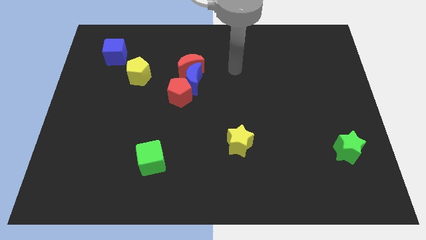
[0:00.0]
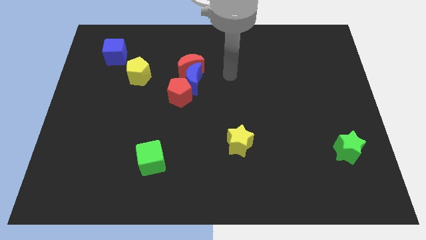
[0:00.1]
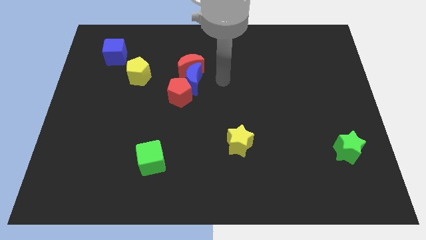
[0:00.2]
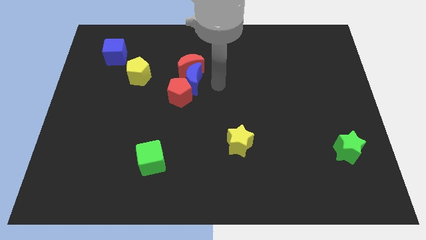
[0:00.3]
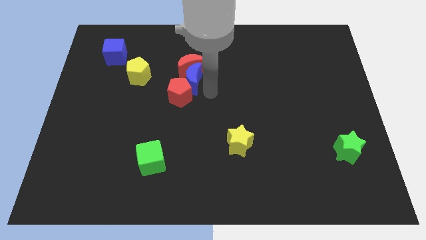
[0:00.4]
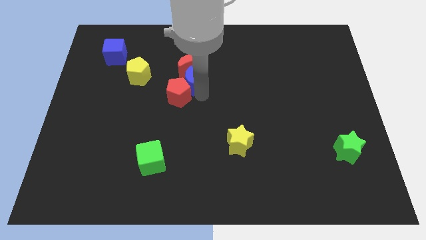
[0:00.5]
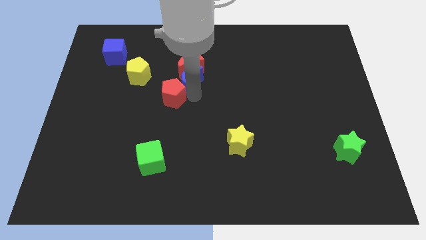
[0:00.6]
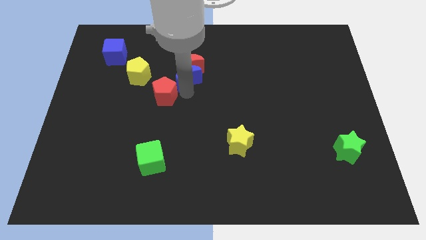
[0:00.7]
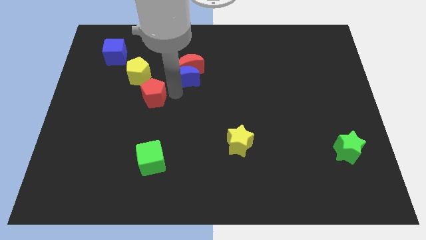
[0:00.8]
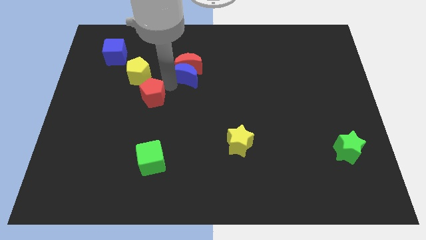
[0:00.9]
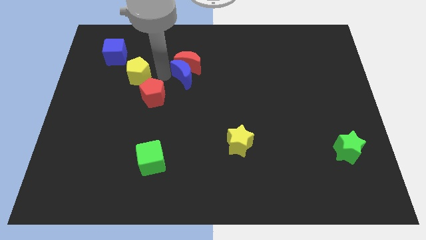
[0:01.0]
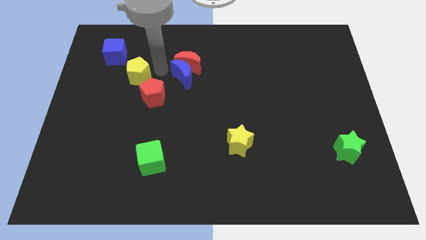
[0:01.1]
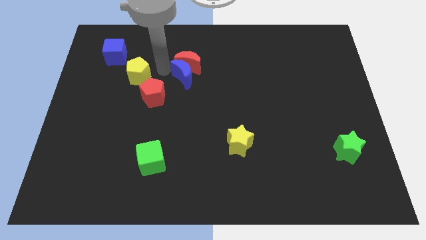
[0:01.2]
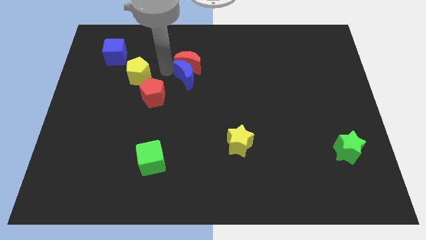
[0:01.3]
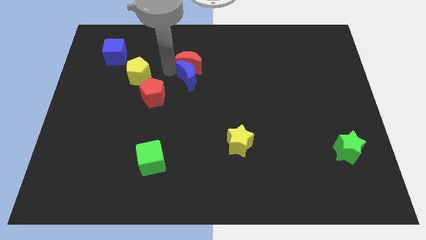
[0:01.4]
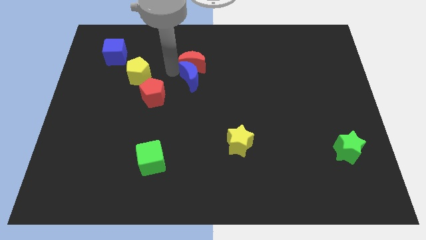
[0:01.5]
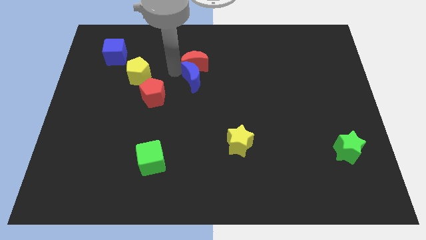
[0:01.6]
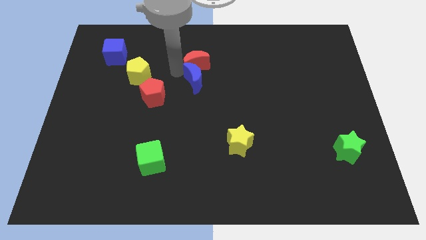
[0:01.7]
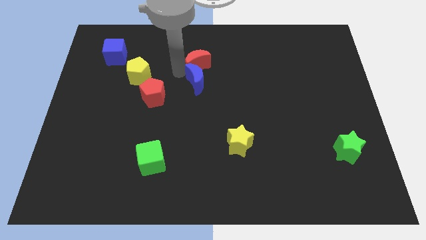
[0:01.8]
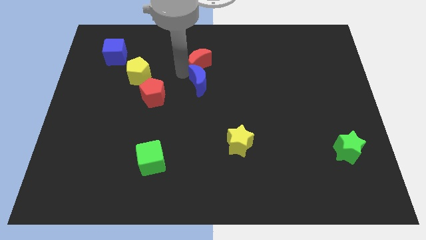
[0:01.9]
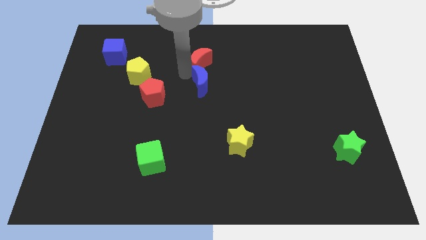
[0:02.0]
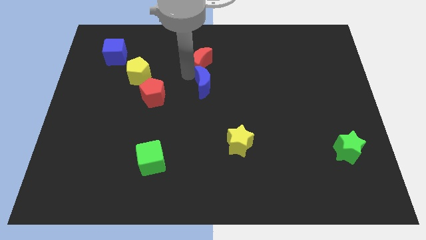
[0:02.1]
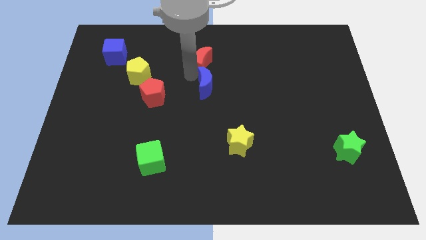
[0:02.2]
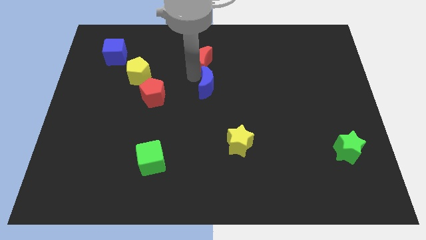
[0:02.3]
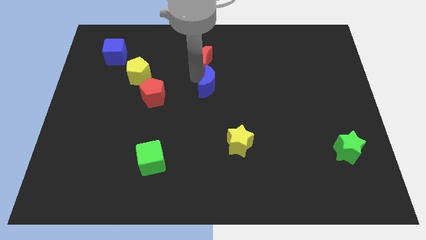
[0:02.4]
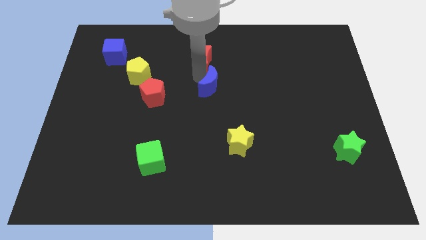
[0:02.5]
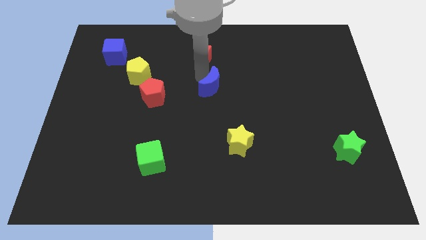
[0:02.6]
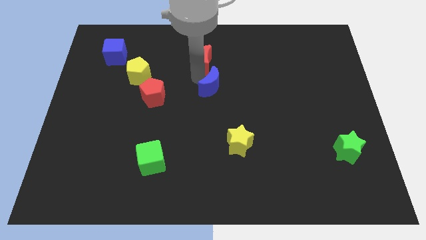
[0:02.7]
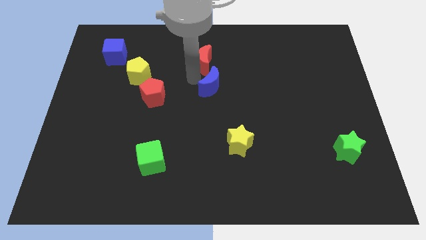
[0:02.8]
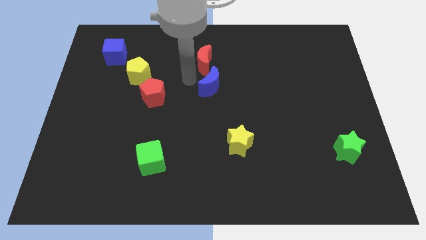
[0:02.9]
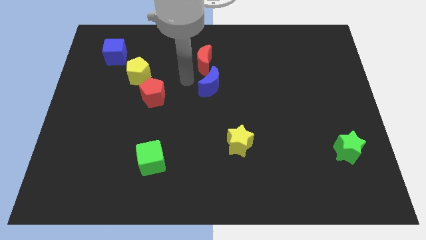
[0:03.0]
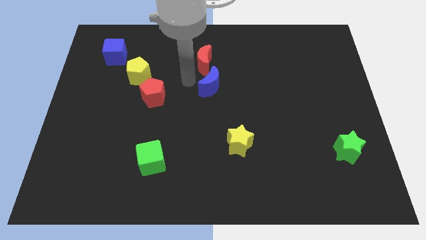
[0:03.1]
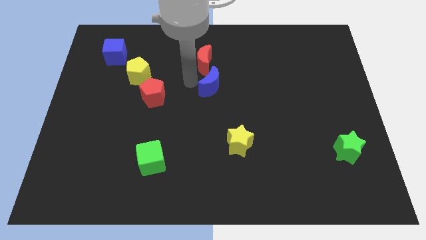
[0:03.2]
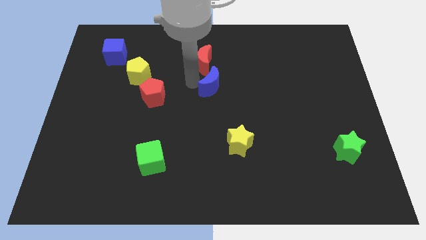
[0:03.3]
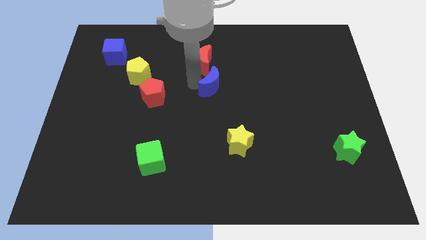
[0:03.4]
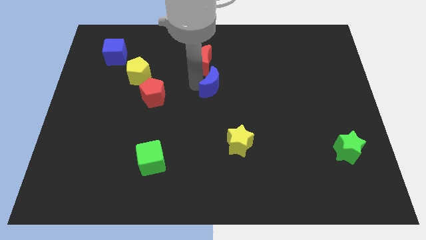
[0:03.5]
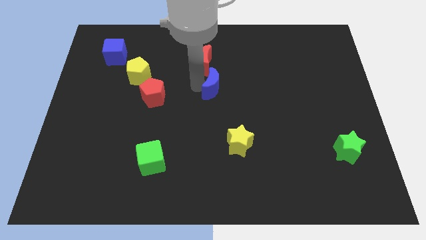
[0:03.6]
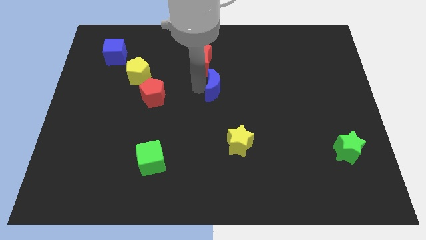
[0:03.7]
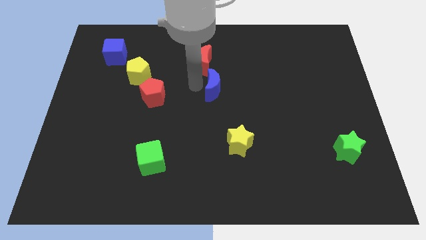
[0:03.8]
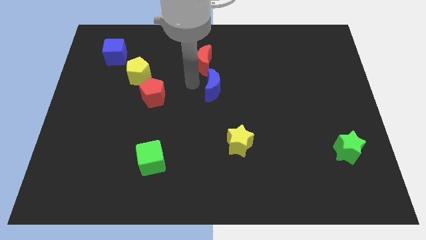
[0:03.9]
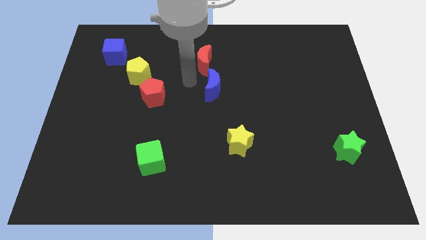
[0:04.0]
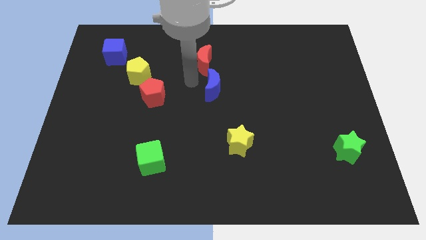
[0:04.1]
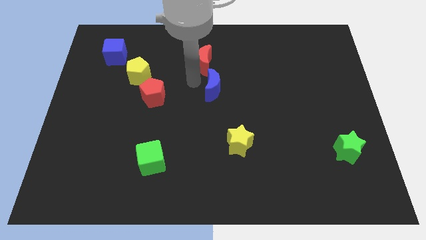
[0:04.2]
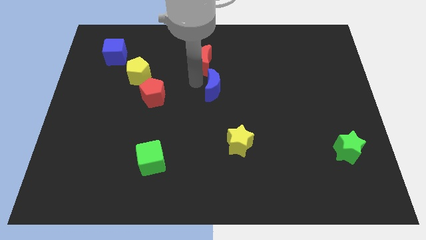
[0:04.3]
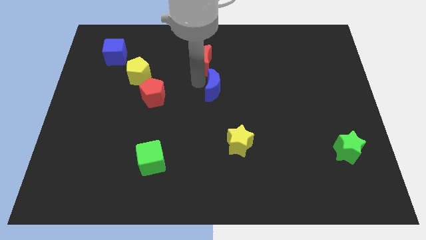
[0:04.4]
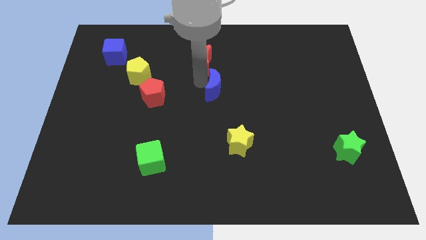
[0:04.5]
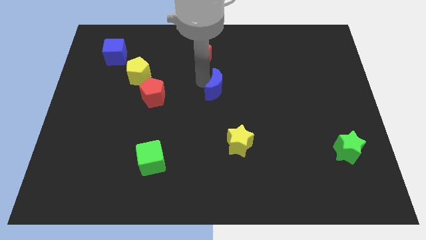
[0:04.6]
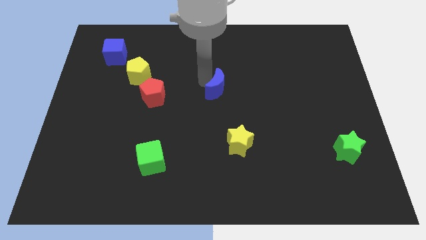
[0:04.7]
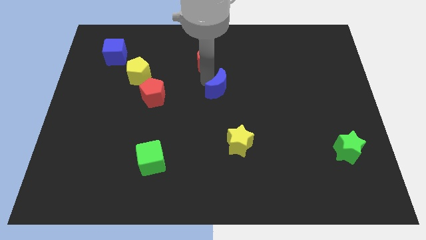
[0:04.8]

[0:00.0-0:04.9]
separate the blue moon from the red moon and red pentagon

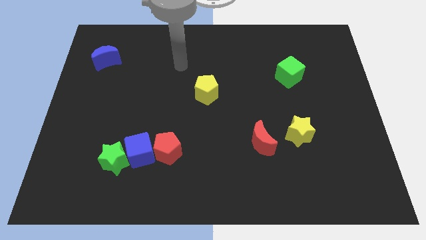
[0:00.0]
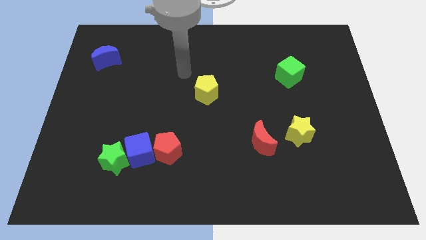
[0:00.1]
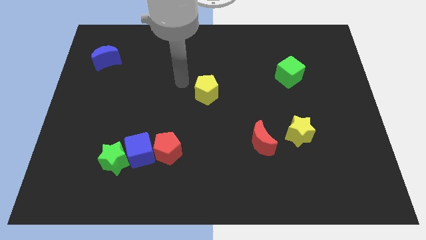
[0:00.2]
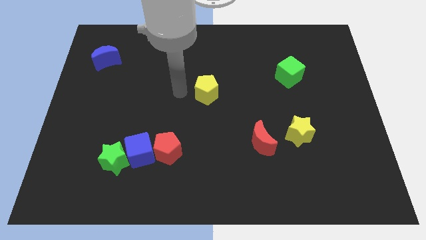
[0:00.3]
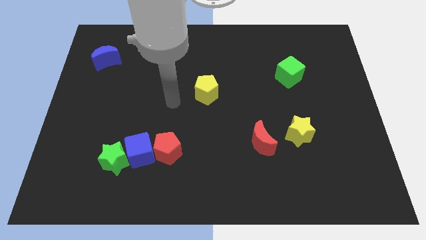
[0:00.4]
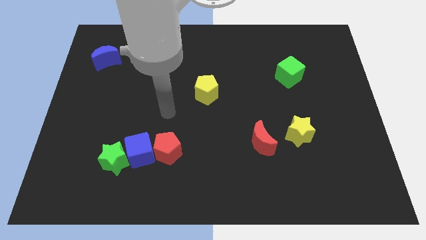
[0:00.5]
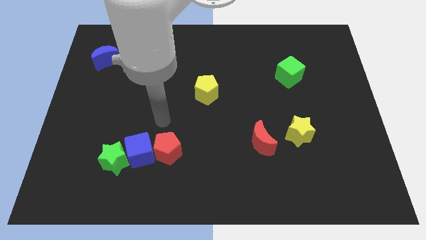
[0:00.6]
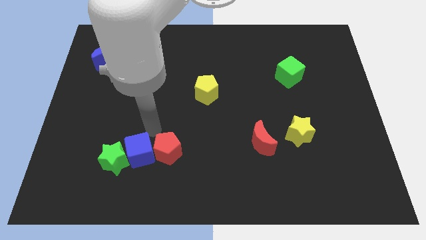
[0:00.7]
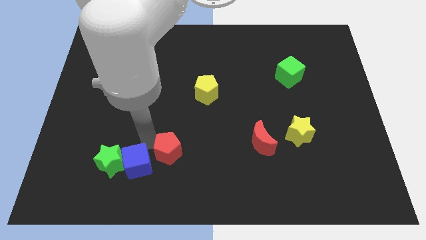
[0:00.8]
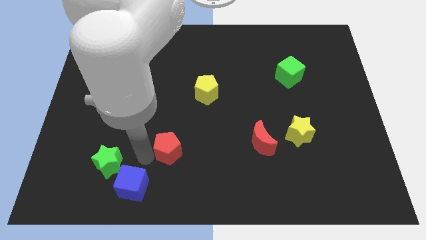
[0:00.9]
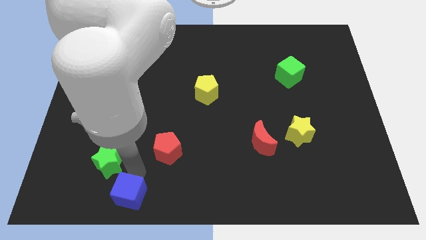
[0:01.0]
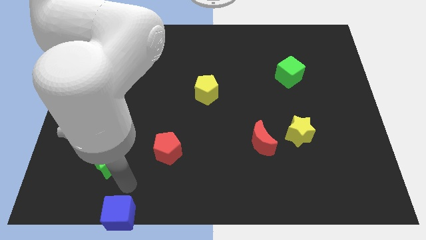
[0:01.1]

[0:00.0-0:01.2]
separate the green star from the blue cube

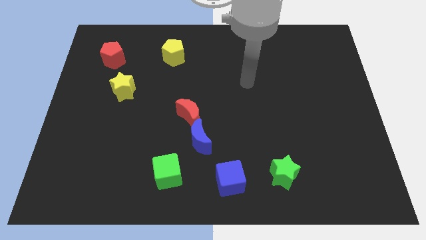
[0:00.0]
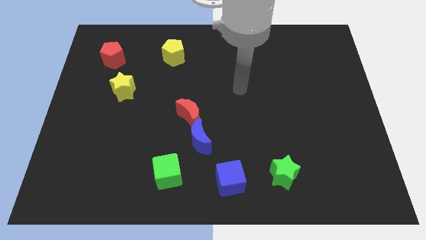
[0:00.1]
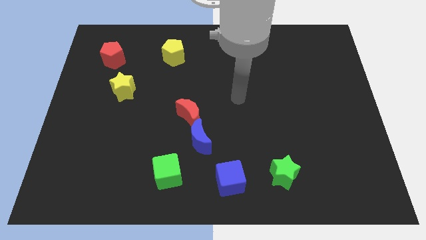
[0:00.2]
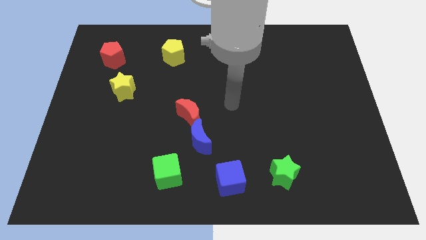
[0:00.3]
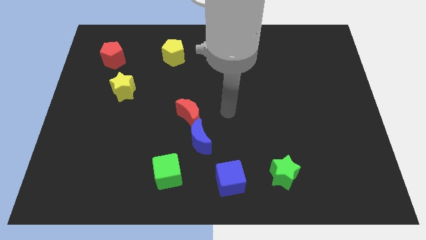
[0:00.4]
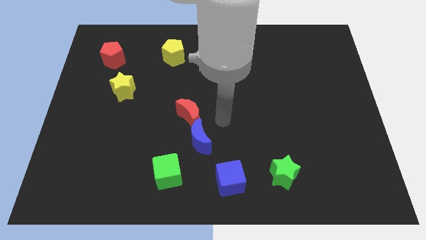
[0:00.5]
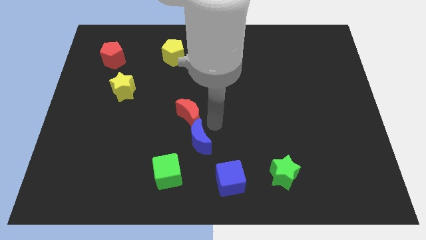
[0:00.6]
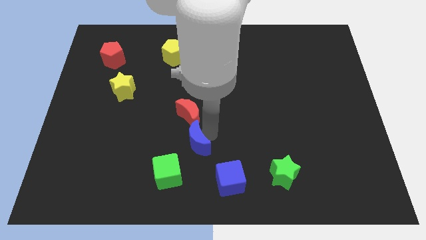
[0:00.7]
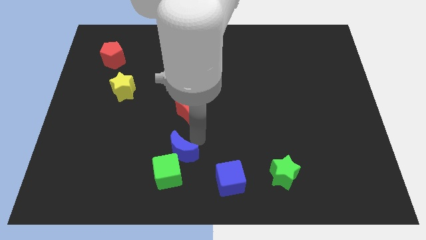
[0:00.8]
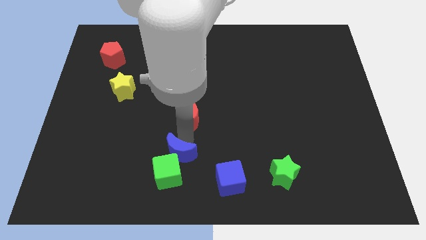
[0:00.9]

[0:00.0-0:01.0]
separate the red moon from the blue moon

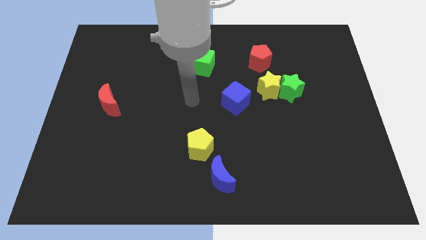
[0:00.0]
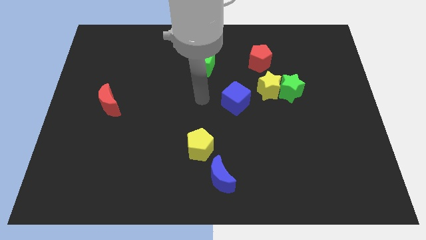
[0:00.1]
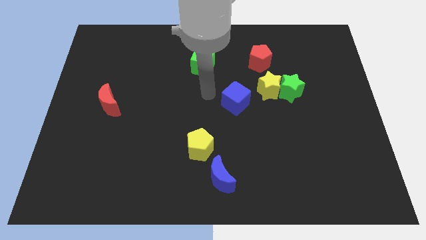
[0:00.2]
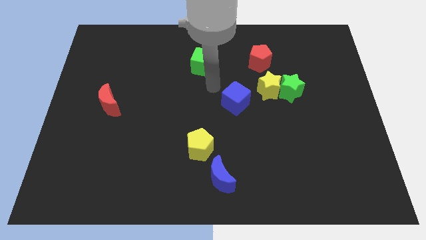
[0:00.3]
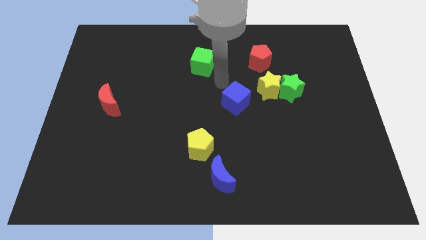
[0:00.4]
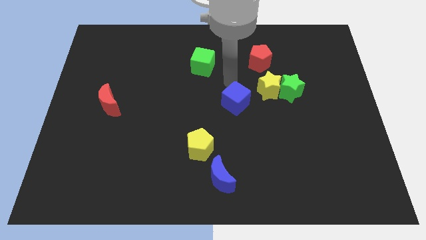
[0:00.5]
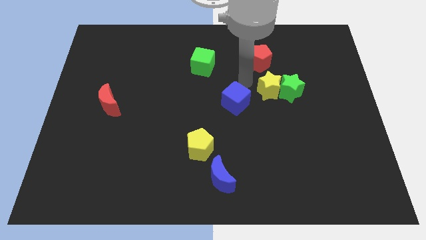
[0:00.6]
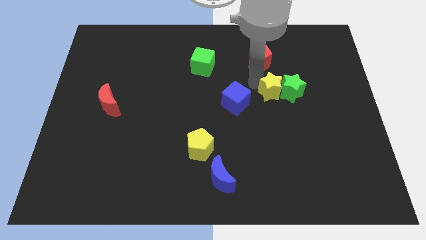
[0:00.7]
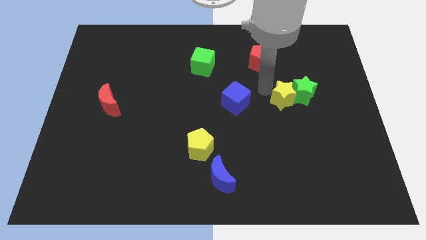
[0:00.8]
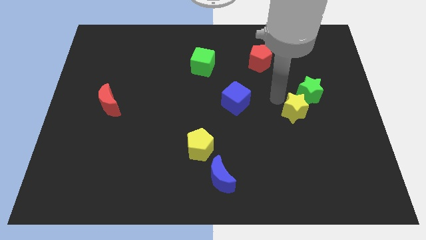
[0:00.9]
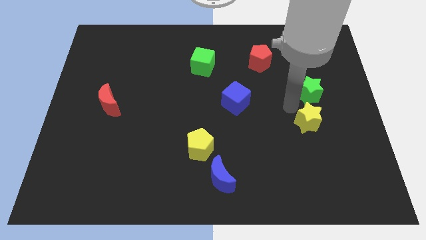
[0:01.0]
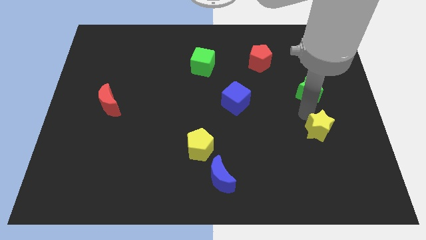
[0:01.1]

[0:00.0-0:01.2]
pull the green star apart from the yellow star

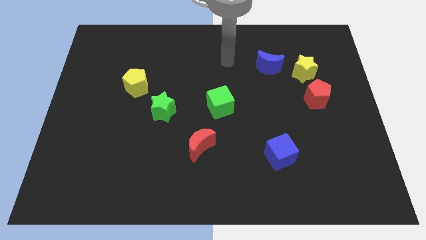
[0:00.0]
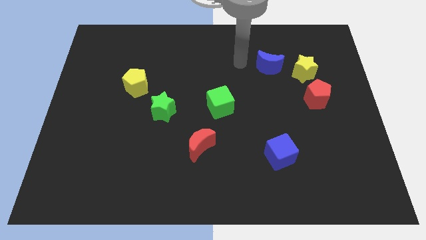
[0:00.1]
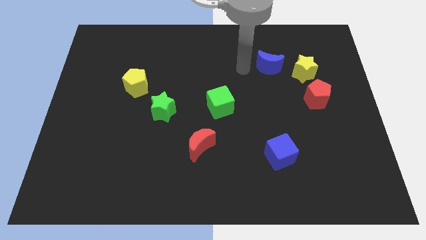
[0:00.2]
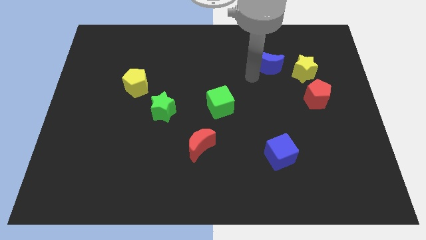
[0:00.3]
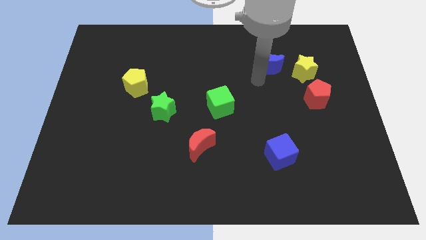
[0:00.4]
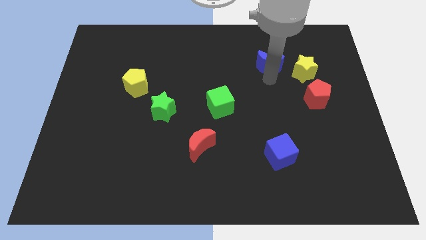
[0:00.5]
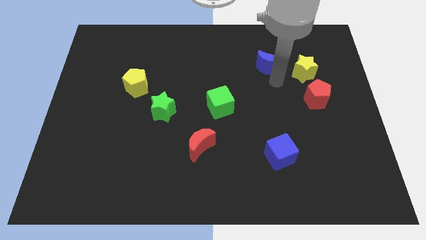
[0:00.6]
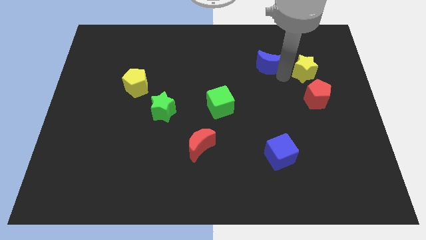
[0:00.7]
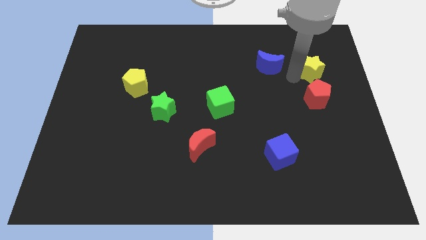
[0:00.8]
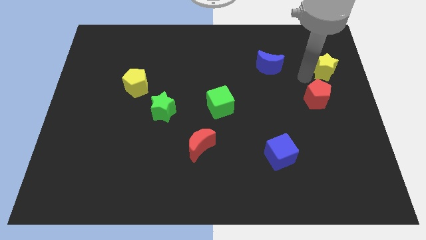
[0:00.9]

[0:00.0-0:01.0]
pull the red pentagon apart from the yellow star
